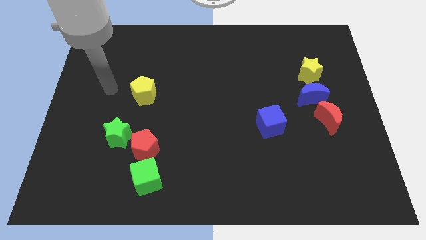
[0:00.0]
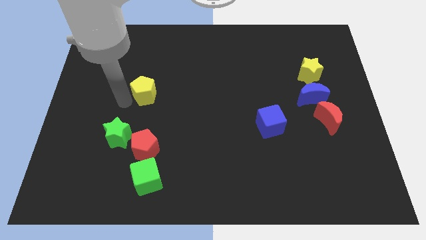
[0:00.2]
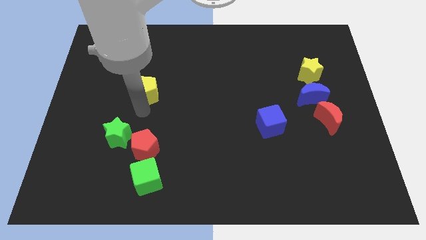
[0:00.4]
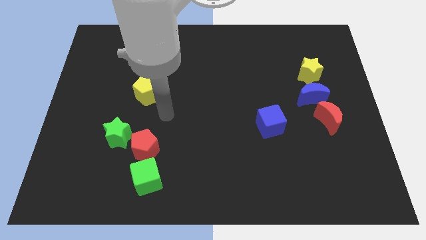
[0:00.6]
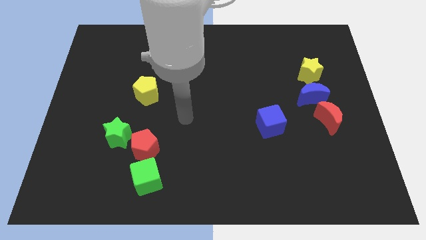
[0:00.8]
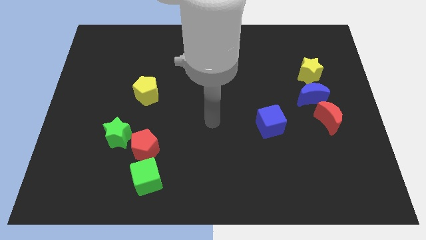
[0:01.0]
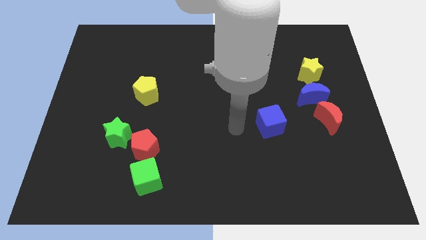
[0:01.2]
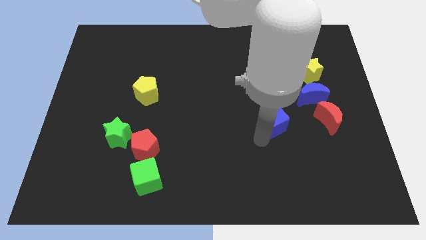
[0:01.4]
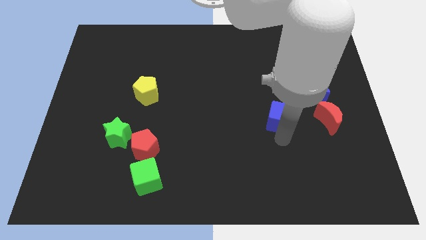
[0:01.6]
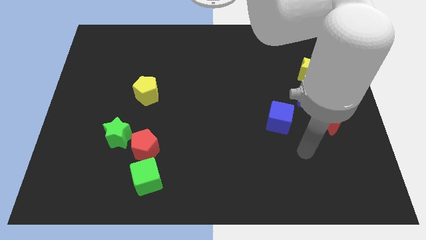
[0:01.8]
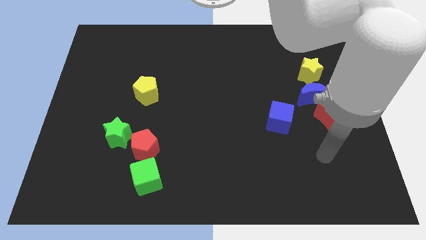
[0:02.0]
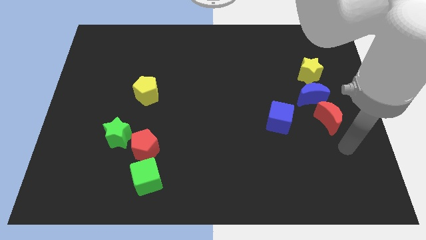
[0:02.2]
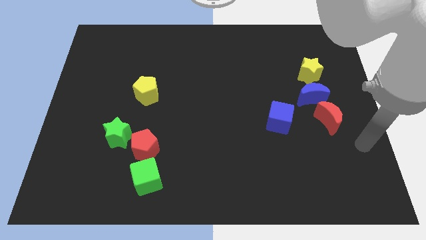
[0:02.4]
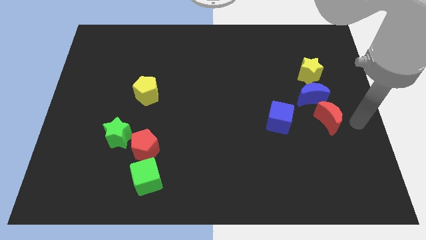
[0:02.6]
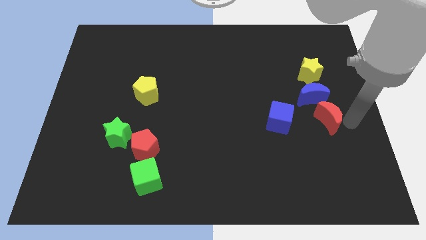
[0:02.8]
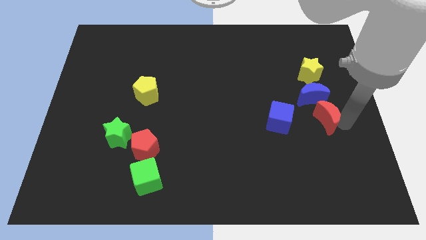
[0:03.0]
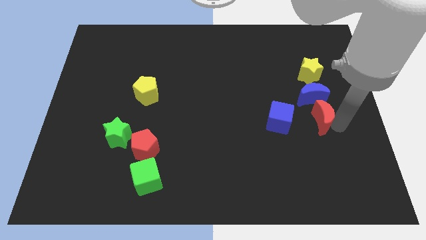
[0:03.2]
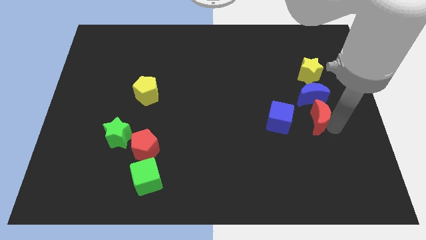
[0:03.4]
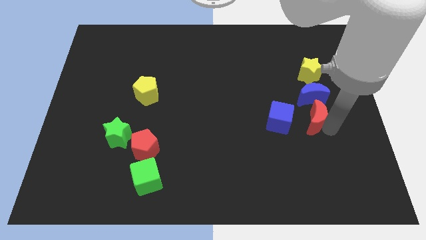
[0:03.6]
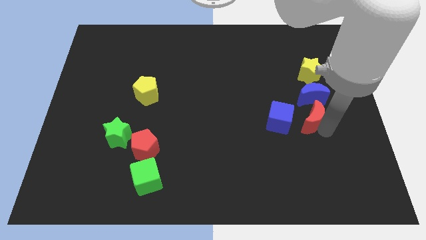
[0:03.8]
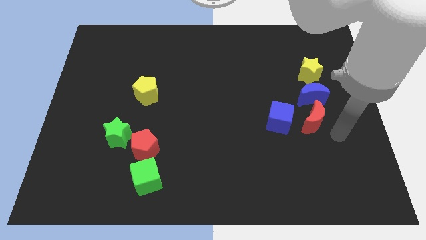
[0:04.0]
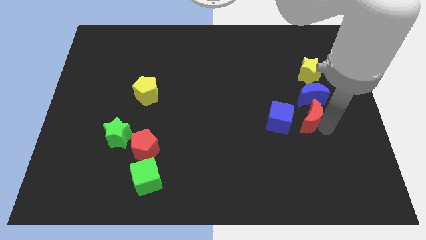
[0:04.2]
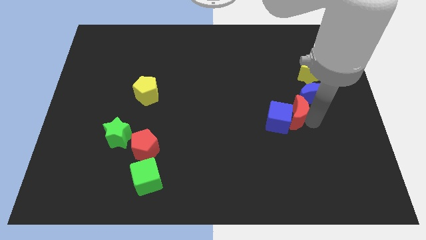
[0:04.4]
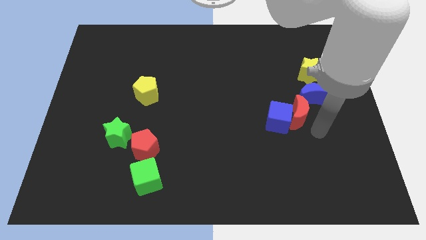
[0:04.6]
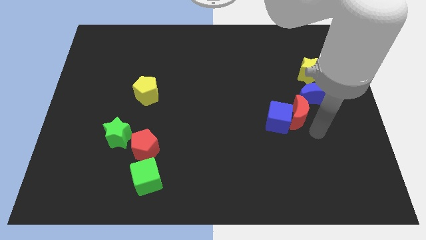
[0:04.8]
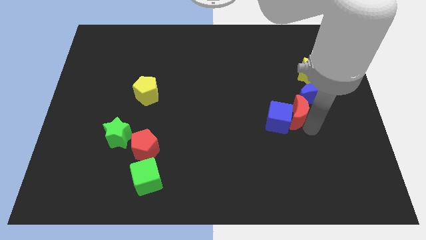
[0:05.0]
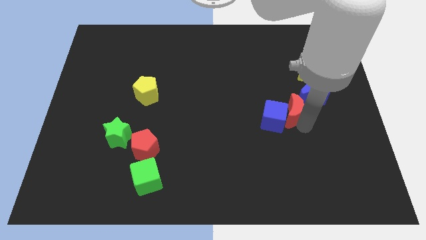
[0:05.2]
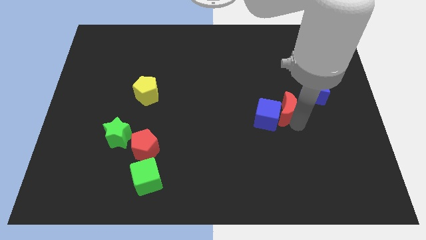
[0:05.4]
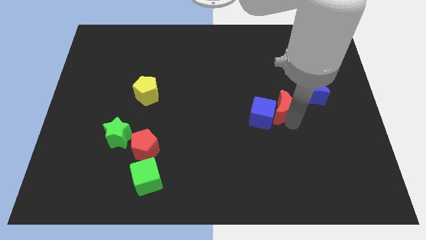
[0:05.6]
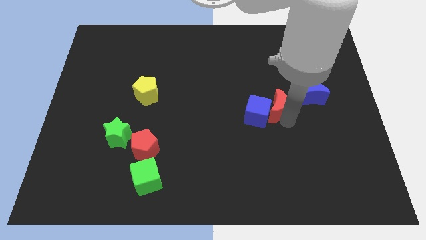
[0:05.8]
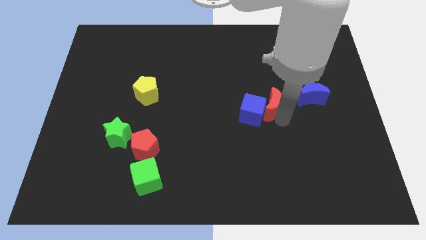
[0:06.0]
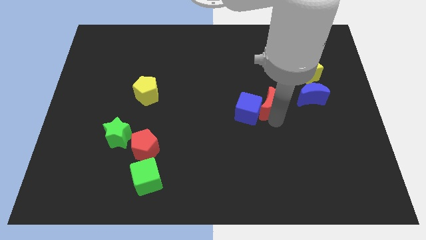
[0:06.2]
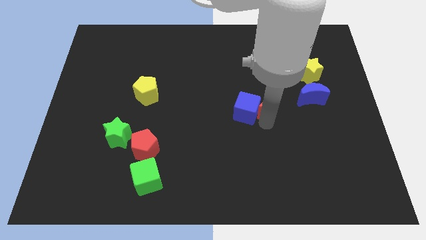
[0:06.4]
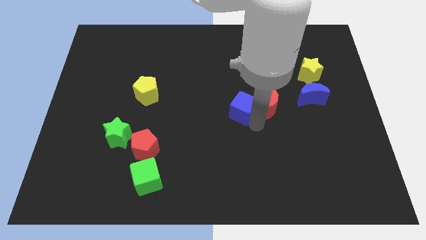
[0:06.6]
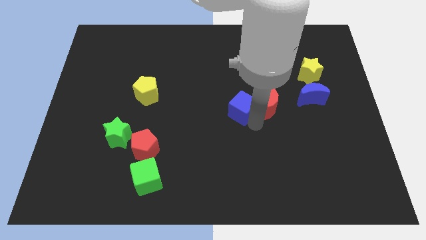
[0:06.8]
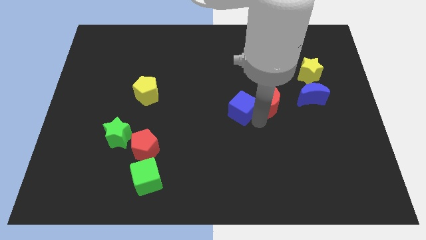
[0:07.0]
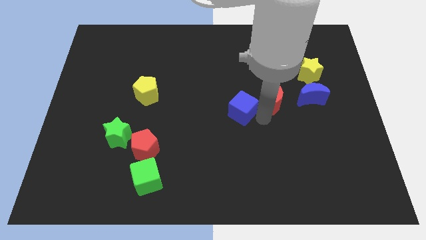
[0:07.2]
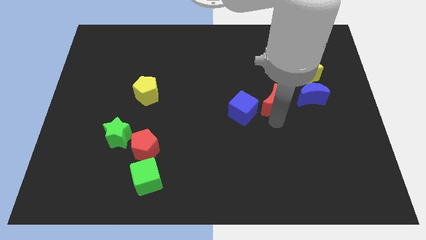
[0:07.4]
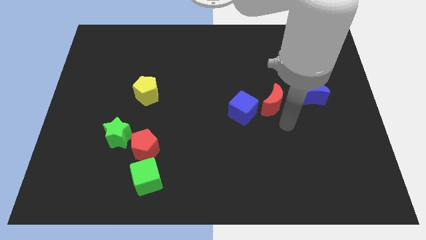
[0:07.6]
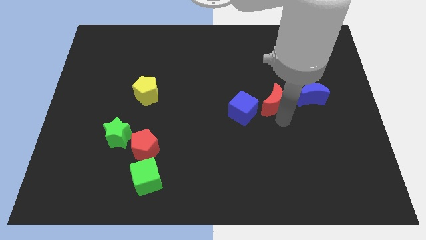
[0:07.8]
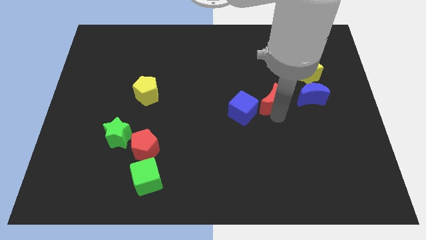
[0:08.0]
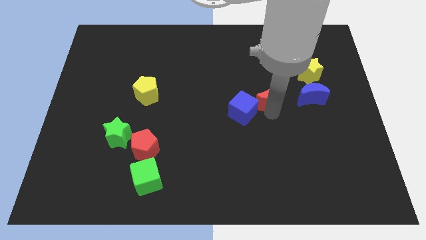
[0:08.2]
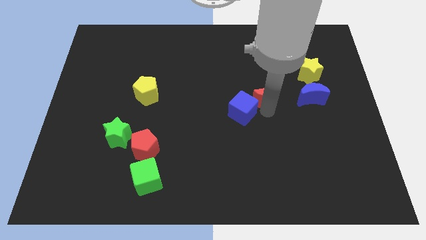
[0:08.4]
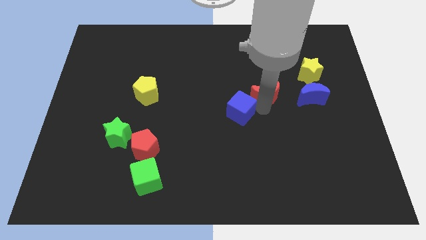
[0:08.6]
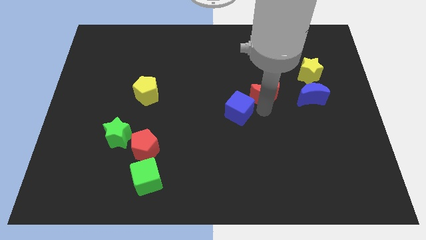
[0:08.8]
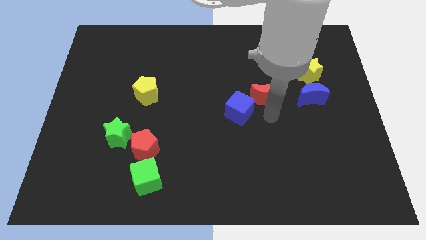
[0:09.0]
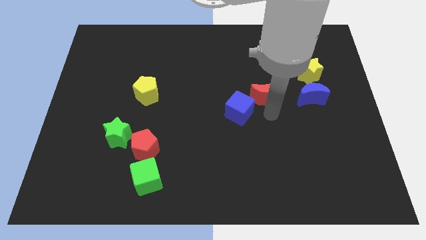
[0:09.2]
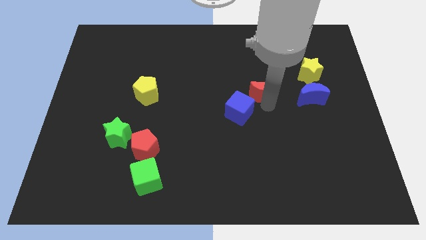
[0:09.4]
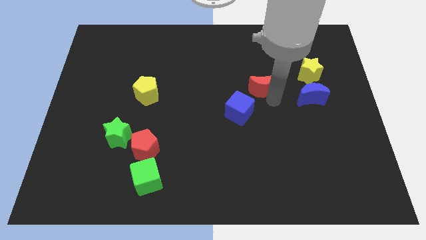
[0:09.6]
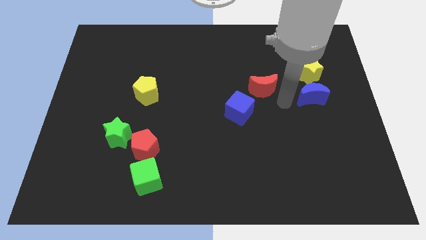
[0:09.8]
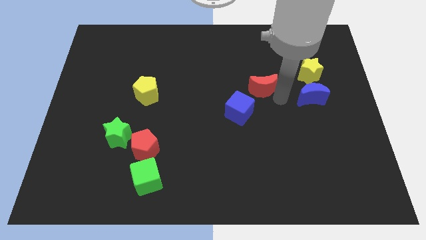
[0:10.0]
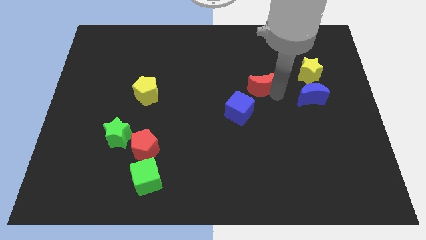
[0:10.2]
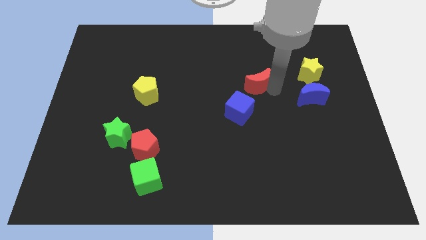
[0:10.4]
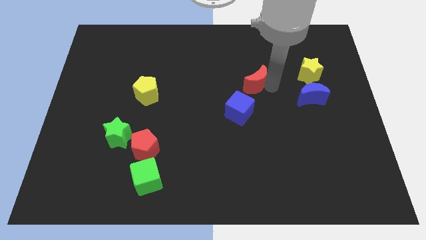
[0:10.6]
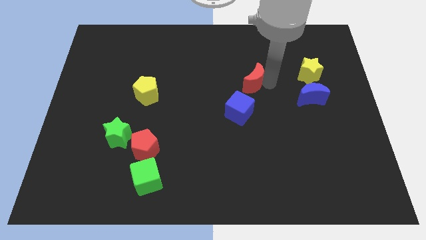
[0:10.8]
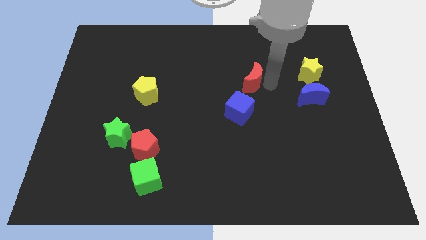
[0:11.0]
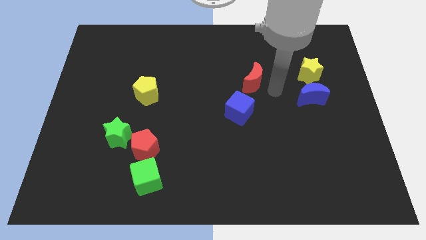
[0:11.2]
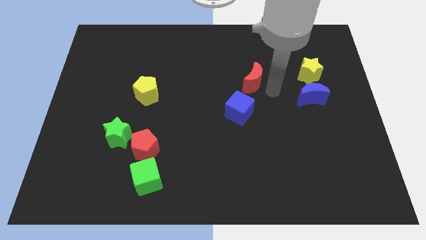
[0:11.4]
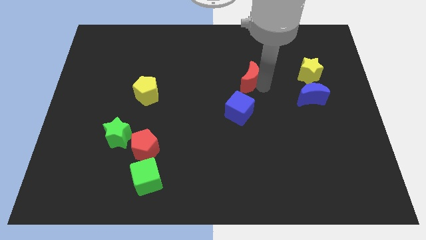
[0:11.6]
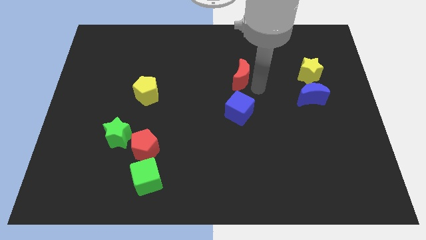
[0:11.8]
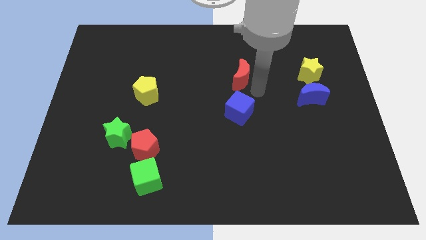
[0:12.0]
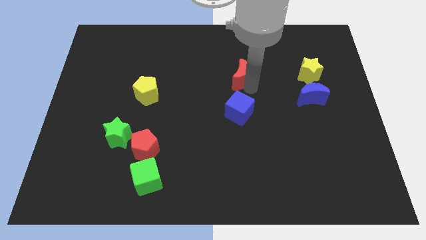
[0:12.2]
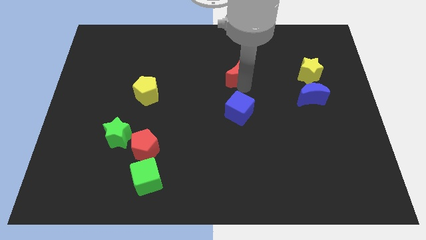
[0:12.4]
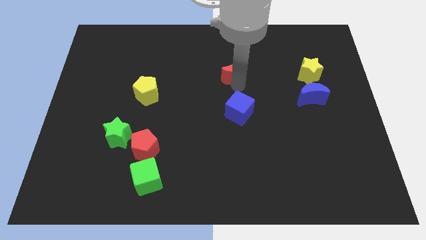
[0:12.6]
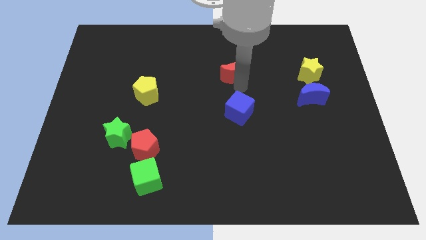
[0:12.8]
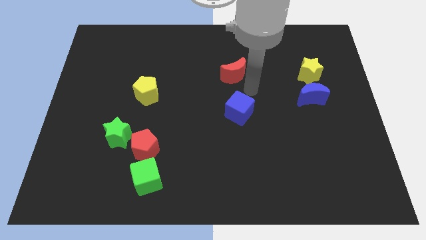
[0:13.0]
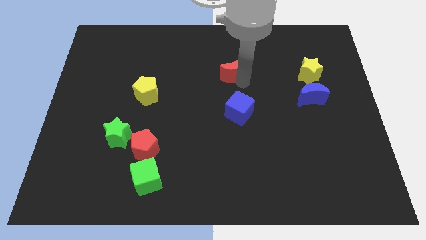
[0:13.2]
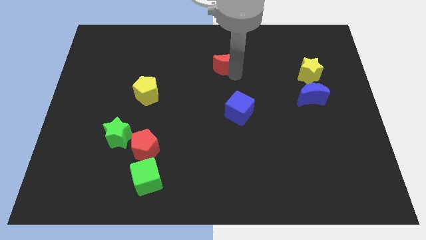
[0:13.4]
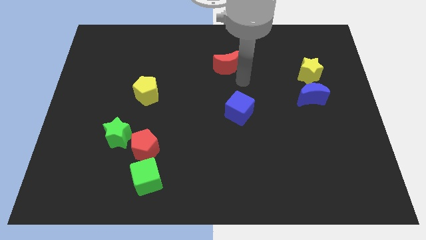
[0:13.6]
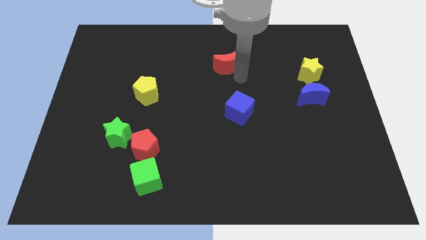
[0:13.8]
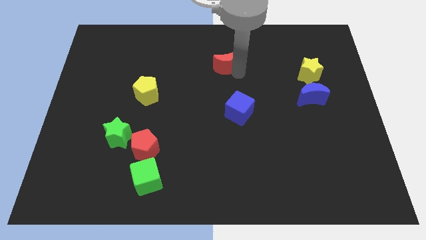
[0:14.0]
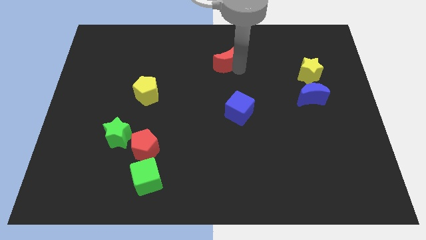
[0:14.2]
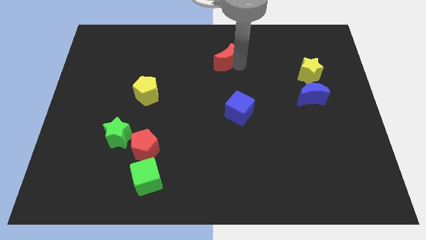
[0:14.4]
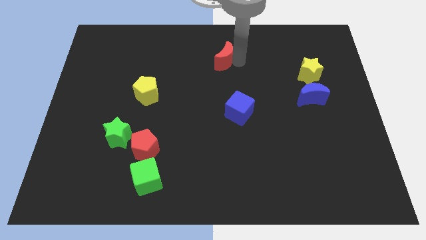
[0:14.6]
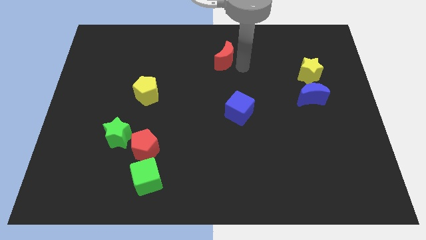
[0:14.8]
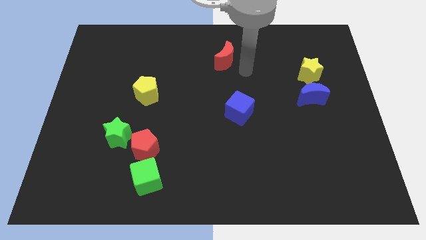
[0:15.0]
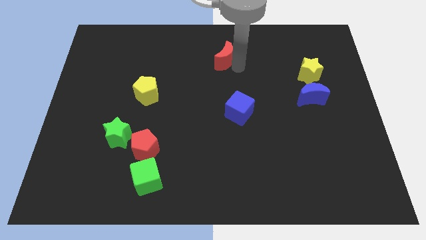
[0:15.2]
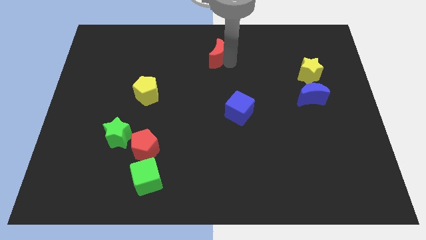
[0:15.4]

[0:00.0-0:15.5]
push the red moon to the top
